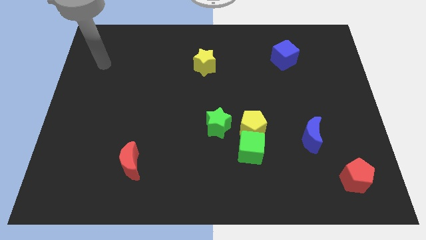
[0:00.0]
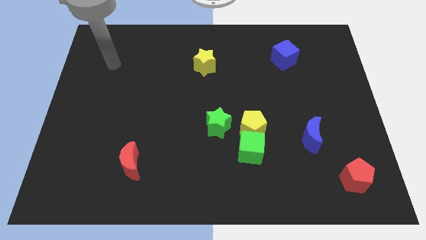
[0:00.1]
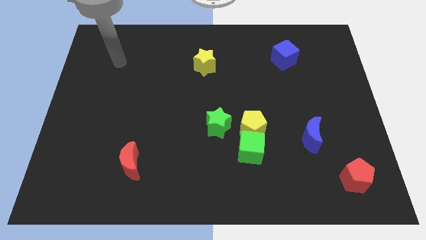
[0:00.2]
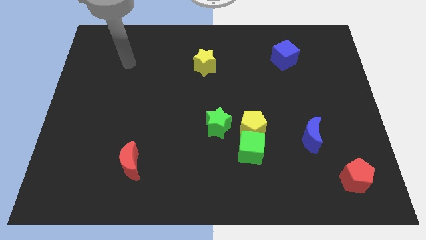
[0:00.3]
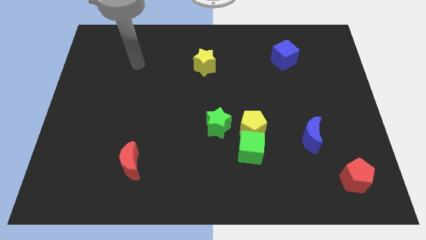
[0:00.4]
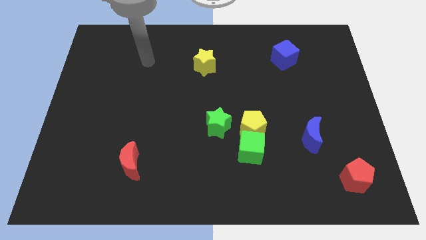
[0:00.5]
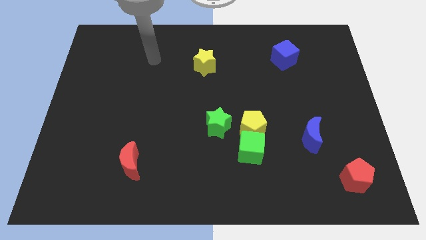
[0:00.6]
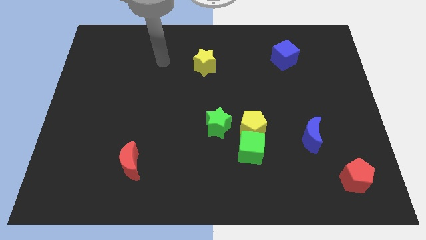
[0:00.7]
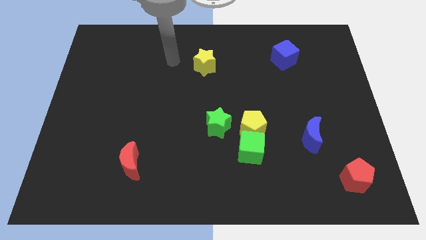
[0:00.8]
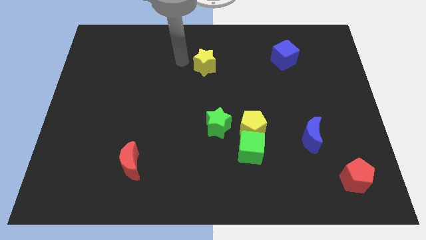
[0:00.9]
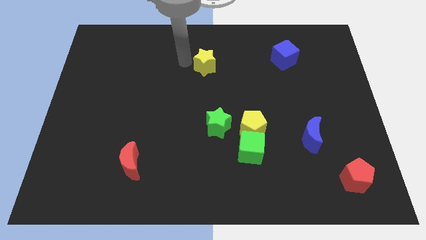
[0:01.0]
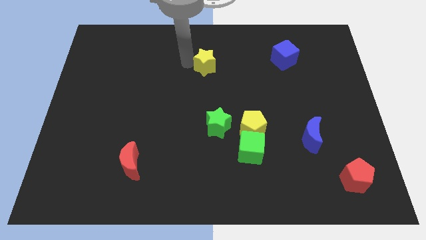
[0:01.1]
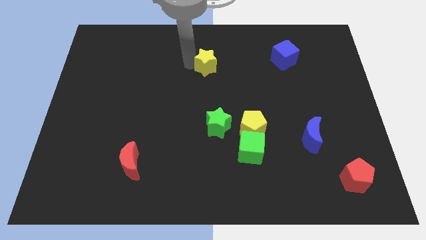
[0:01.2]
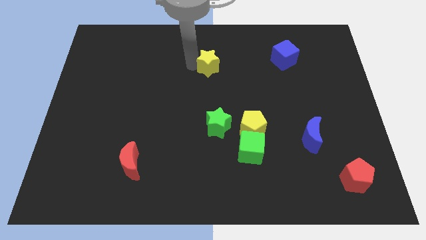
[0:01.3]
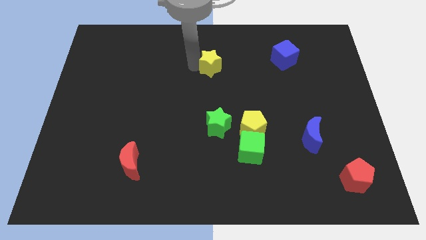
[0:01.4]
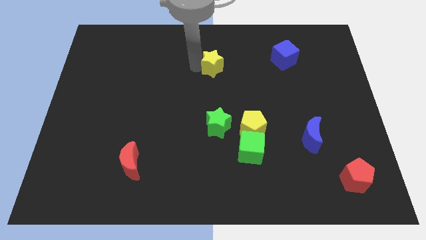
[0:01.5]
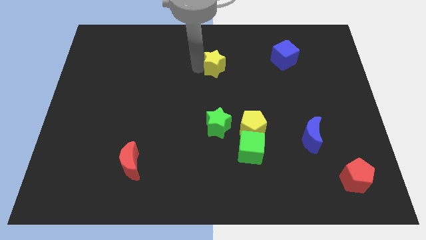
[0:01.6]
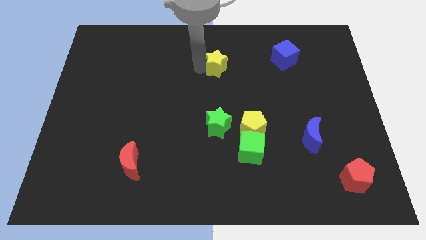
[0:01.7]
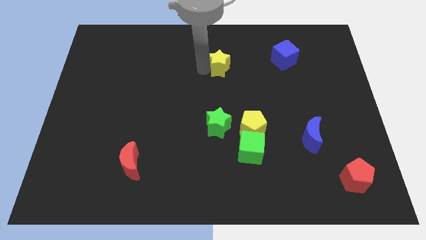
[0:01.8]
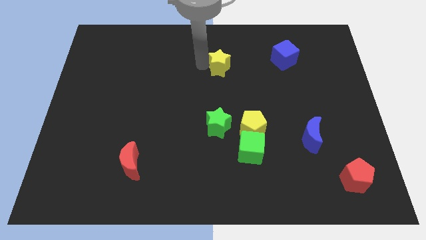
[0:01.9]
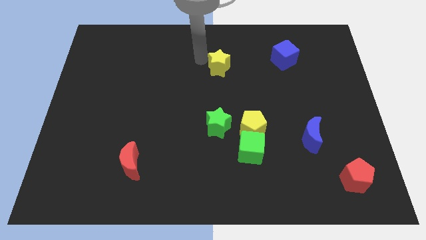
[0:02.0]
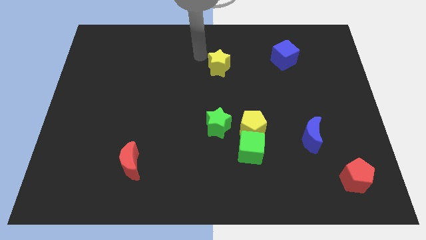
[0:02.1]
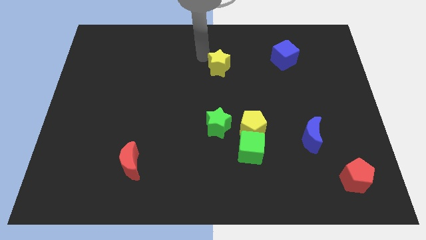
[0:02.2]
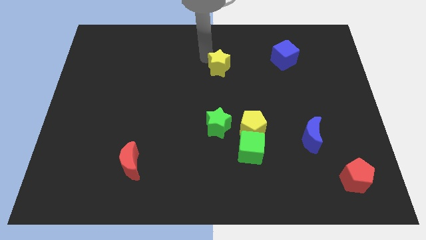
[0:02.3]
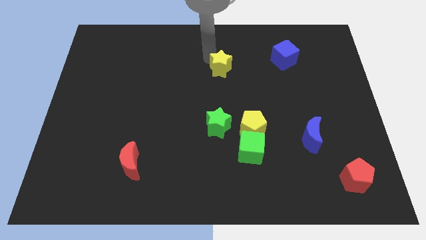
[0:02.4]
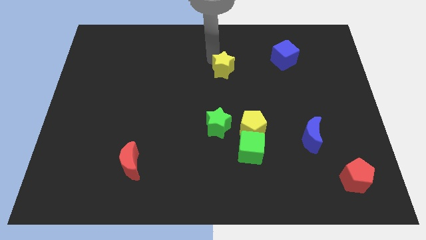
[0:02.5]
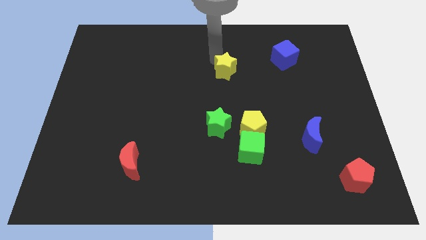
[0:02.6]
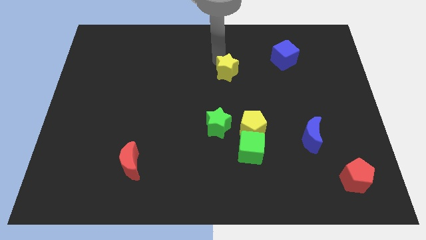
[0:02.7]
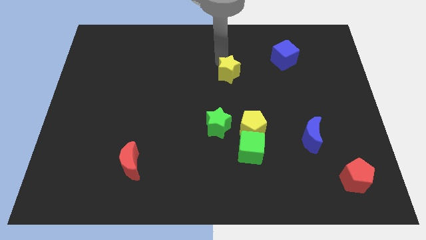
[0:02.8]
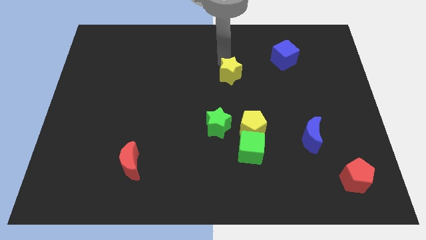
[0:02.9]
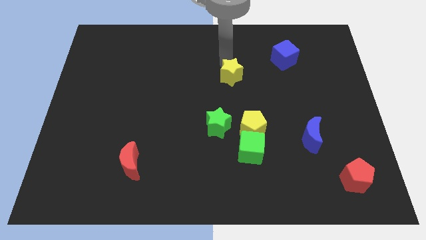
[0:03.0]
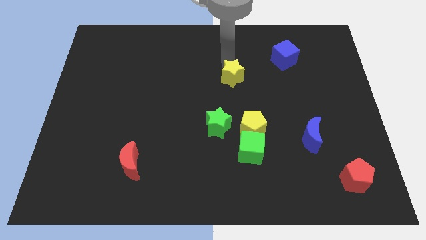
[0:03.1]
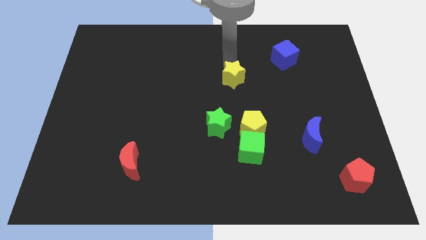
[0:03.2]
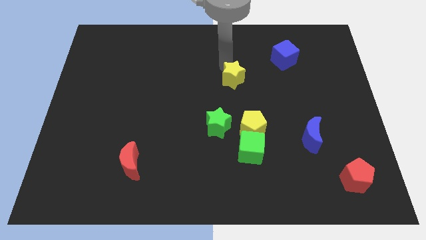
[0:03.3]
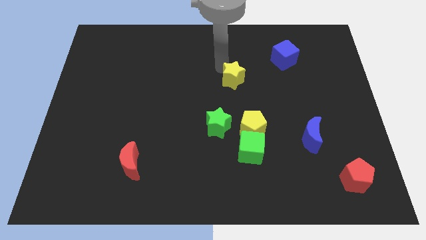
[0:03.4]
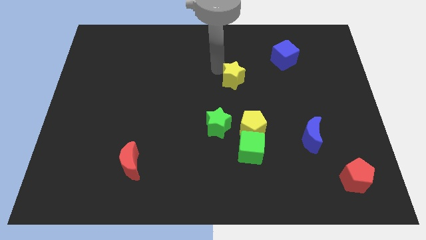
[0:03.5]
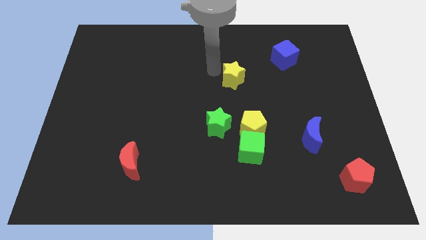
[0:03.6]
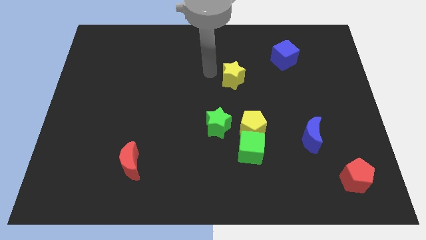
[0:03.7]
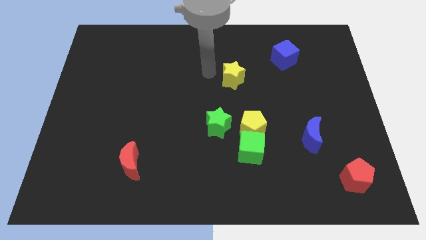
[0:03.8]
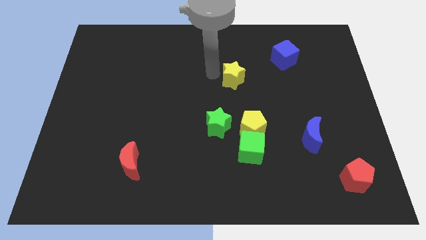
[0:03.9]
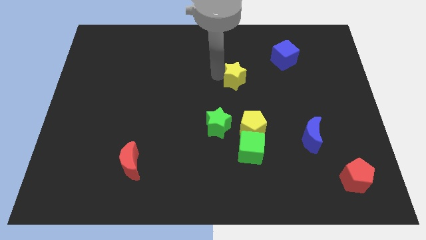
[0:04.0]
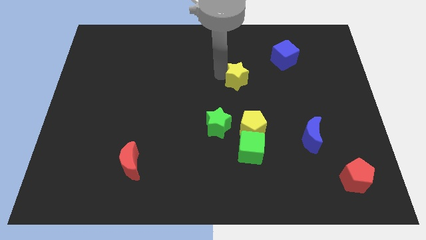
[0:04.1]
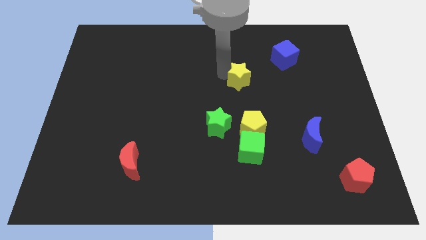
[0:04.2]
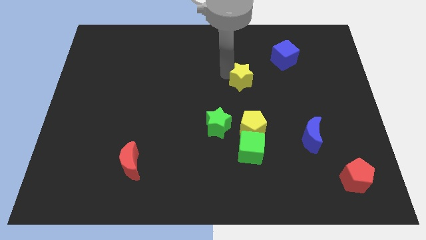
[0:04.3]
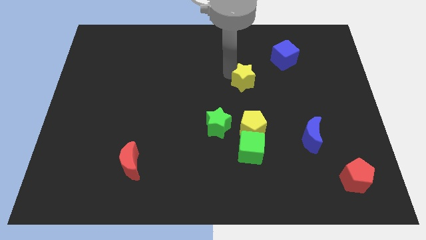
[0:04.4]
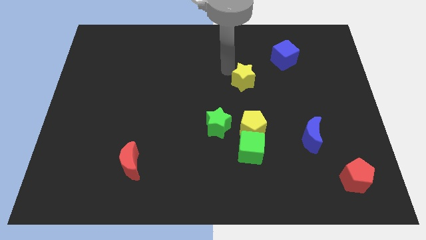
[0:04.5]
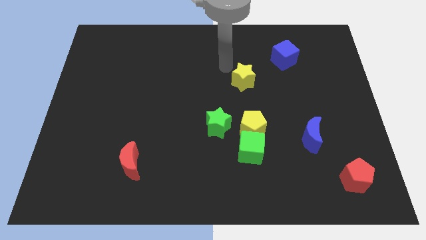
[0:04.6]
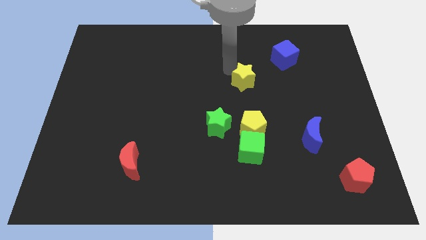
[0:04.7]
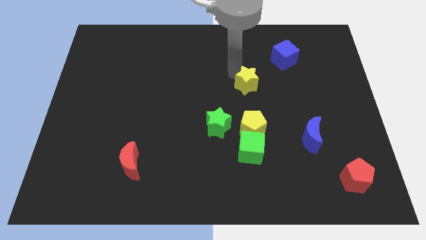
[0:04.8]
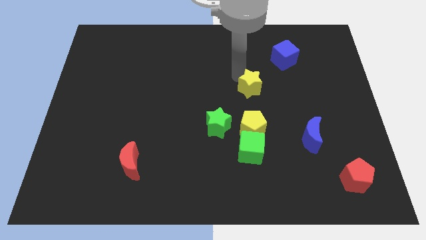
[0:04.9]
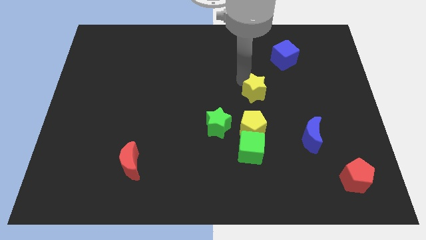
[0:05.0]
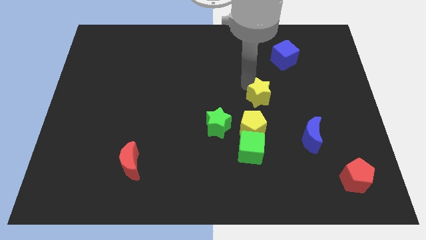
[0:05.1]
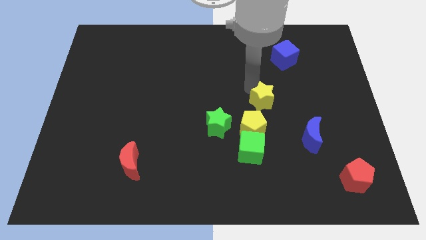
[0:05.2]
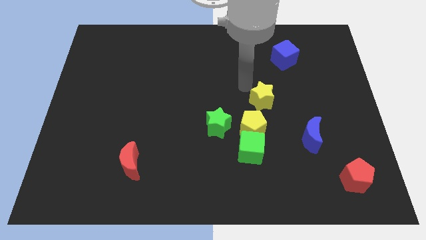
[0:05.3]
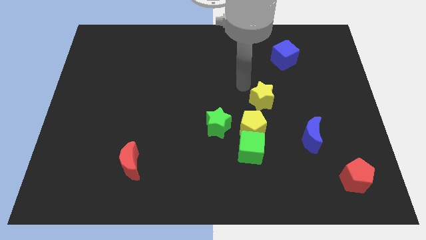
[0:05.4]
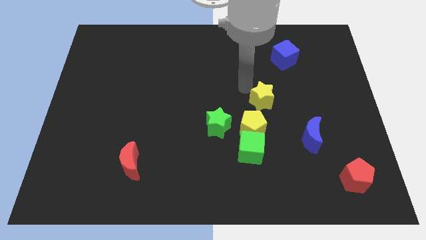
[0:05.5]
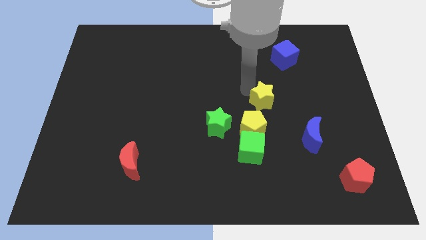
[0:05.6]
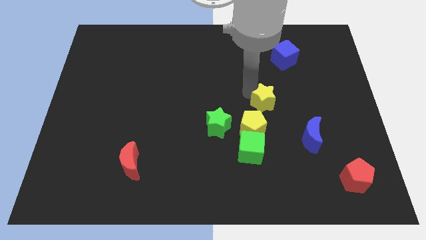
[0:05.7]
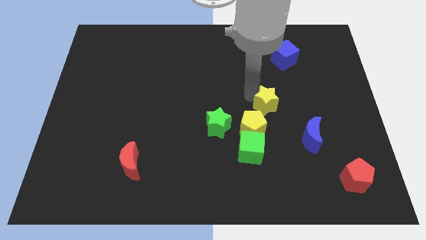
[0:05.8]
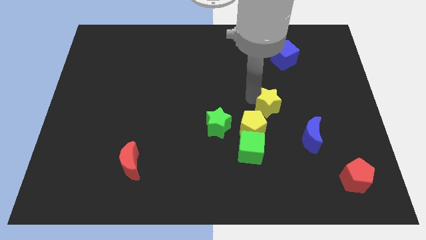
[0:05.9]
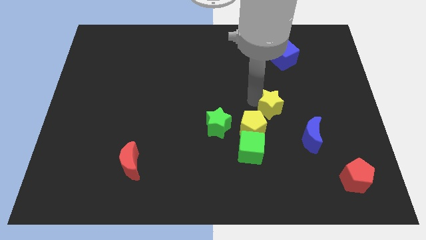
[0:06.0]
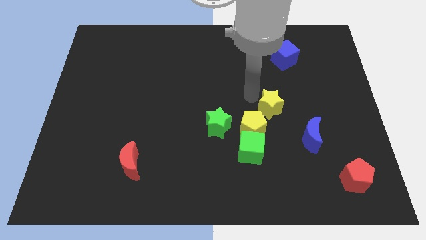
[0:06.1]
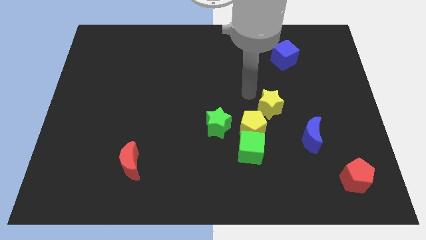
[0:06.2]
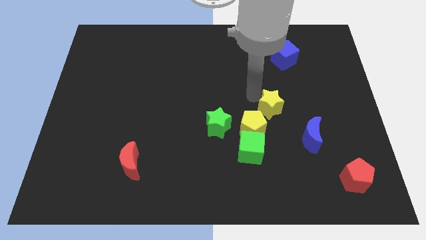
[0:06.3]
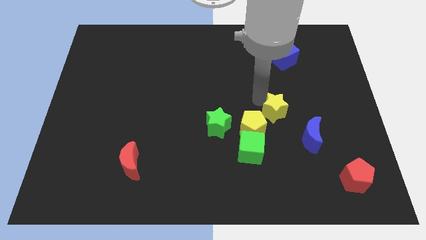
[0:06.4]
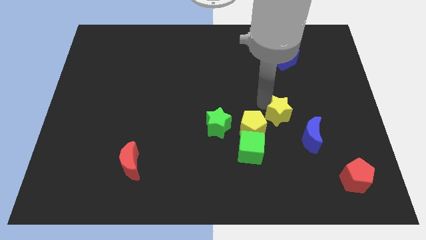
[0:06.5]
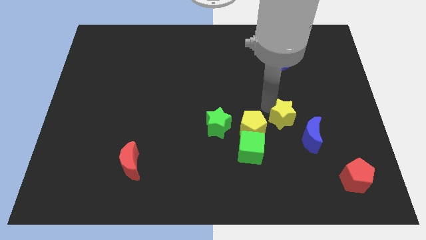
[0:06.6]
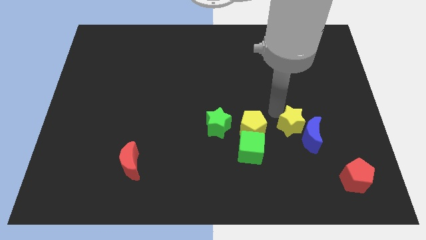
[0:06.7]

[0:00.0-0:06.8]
slide the yellow star next to the blue moon
